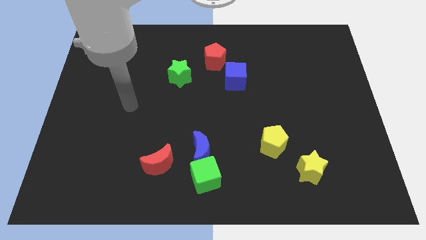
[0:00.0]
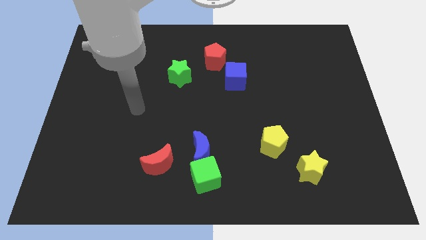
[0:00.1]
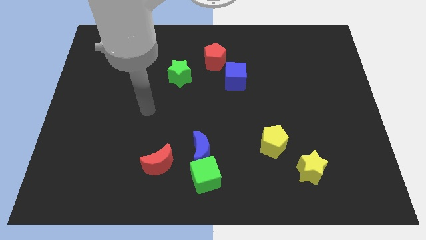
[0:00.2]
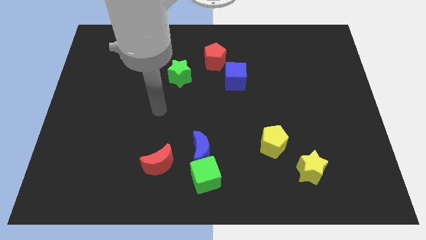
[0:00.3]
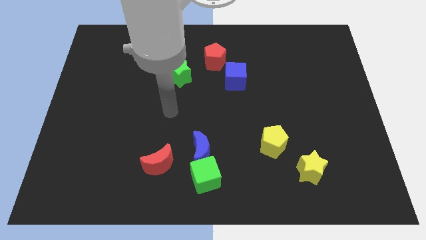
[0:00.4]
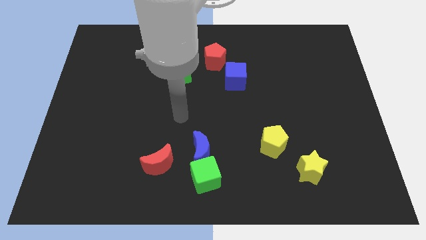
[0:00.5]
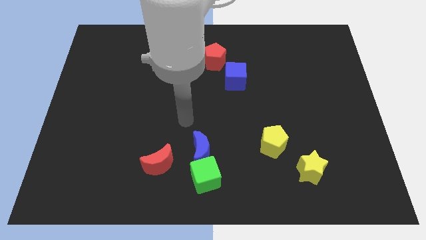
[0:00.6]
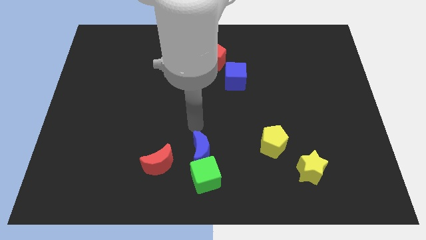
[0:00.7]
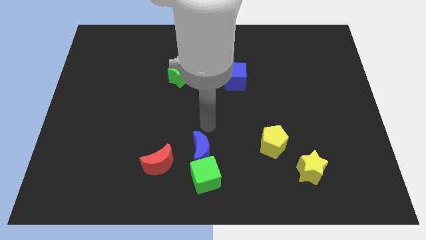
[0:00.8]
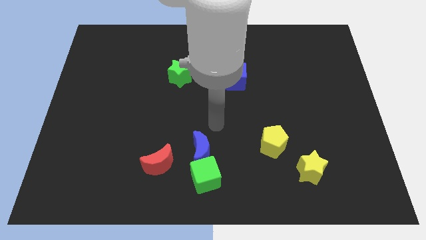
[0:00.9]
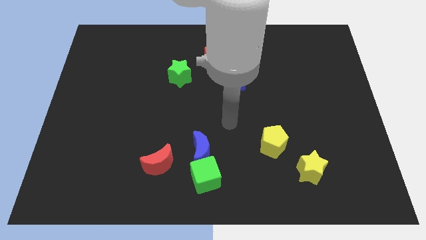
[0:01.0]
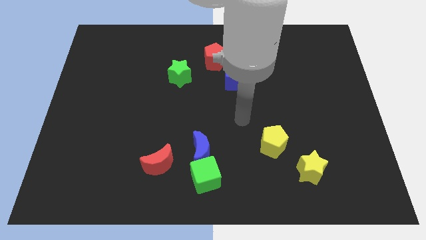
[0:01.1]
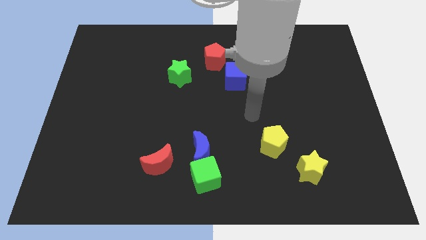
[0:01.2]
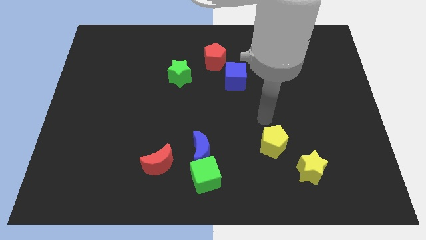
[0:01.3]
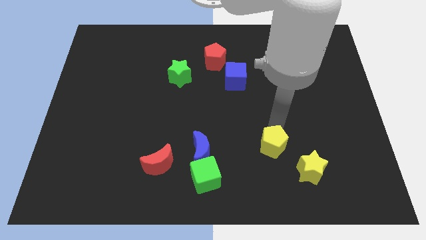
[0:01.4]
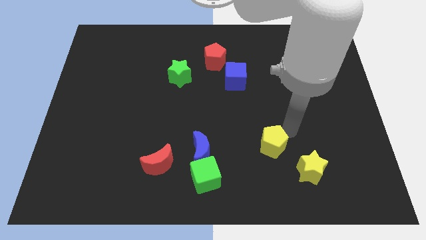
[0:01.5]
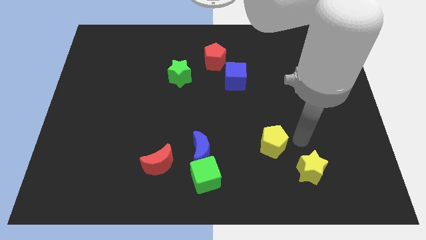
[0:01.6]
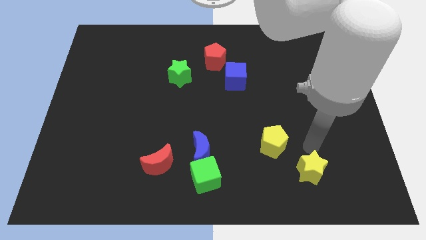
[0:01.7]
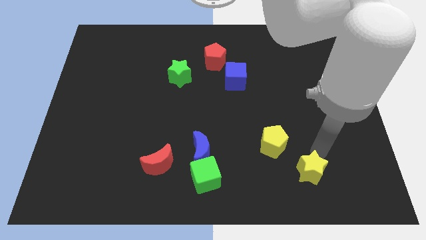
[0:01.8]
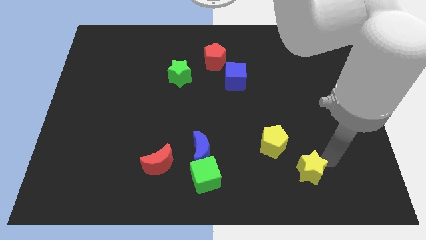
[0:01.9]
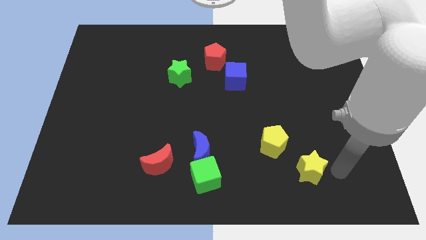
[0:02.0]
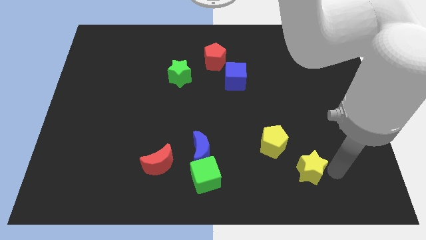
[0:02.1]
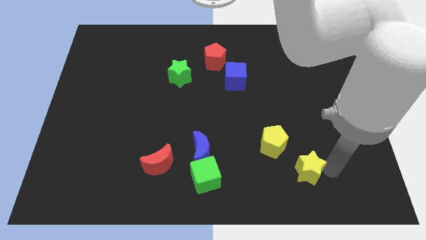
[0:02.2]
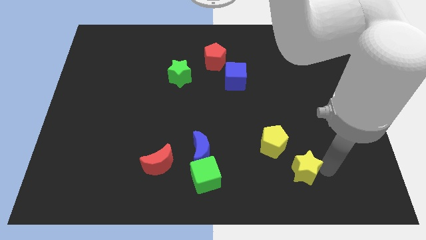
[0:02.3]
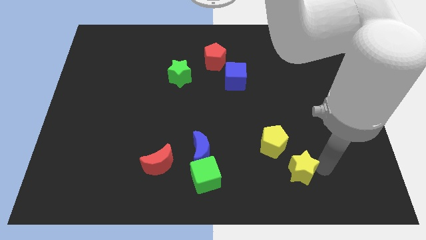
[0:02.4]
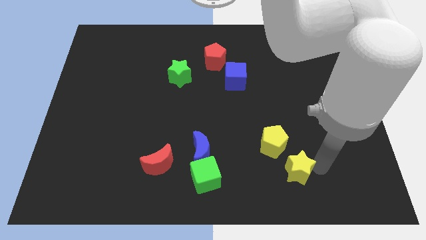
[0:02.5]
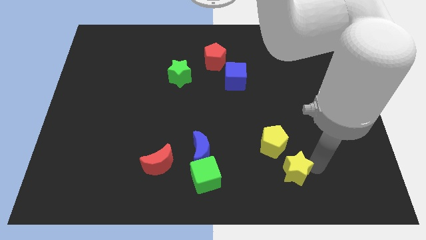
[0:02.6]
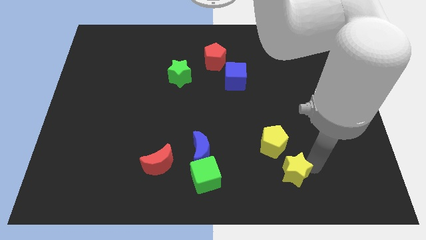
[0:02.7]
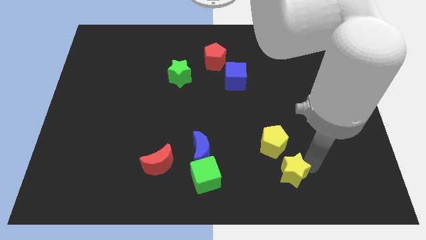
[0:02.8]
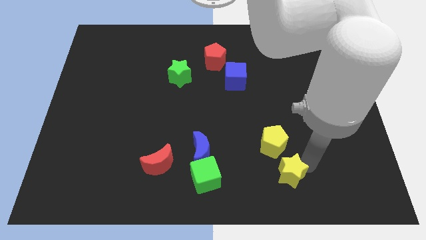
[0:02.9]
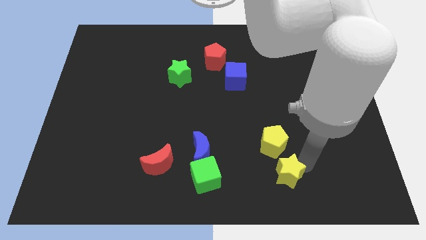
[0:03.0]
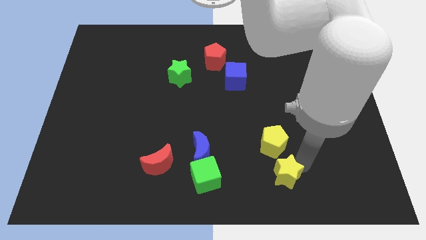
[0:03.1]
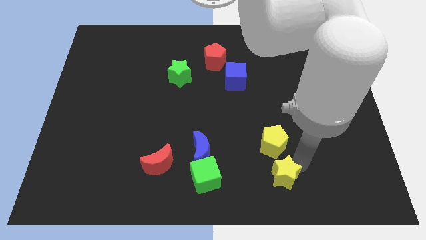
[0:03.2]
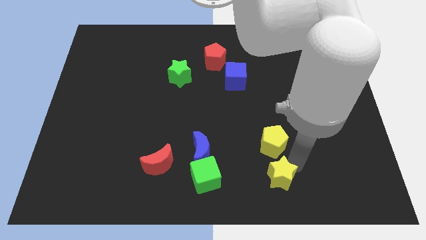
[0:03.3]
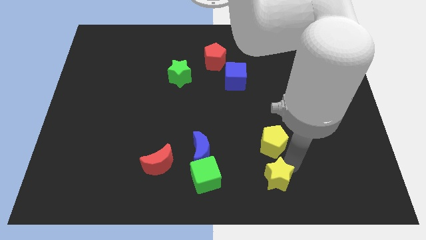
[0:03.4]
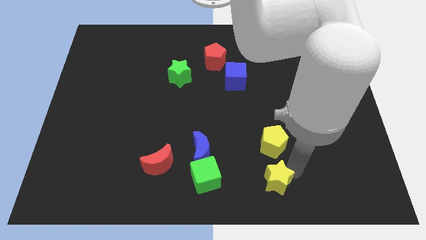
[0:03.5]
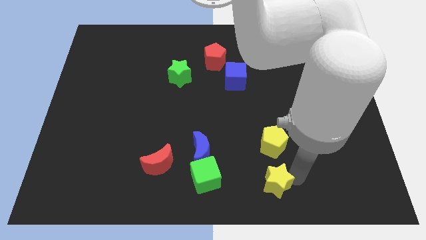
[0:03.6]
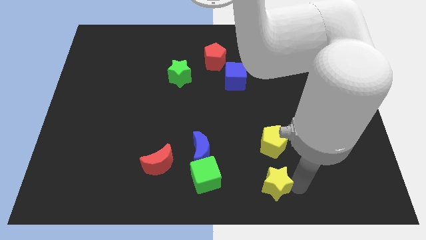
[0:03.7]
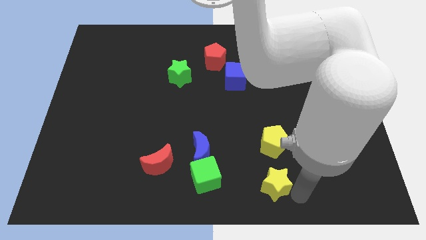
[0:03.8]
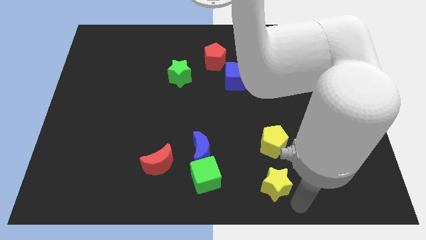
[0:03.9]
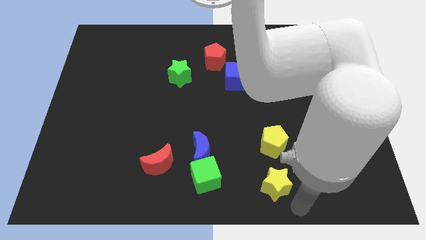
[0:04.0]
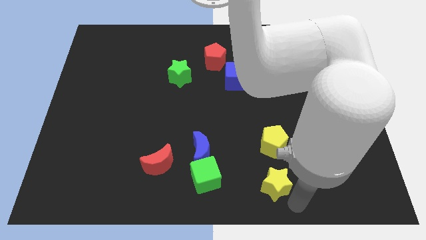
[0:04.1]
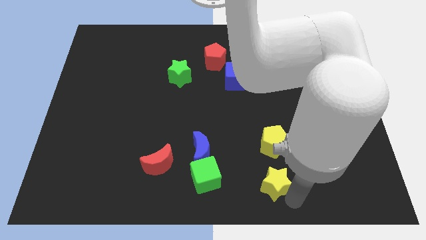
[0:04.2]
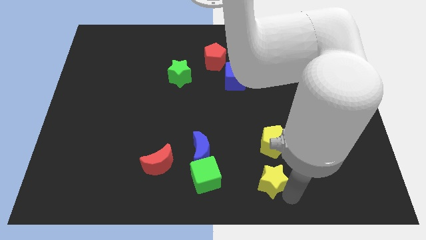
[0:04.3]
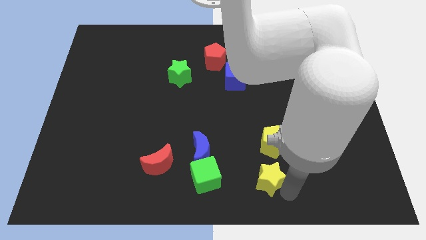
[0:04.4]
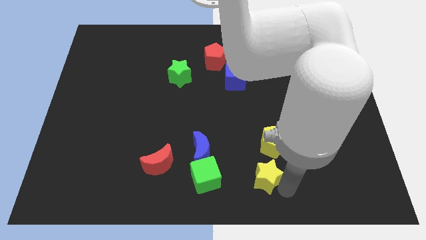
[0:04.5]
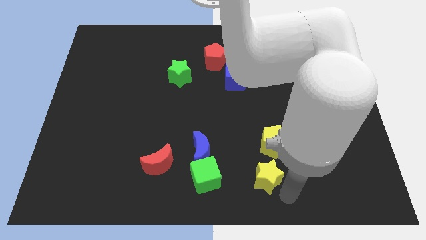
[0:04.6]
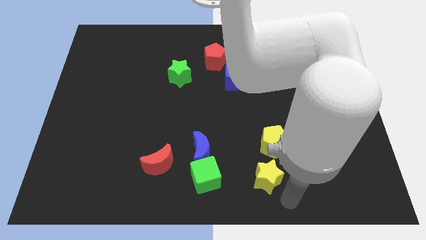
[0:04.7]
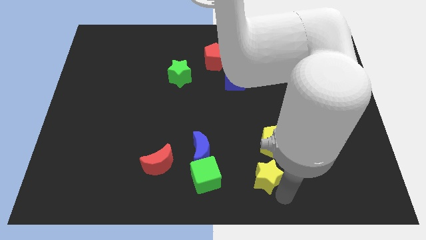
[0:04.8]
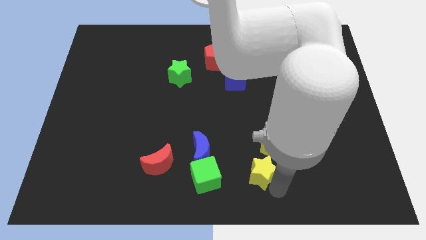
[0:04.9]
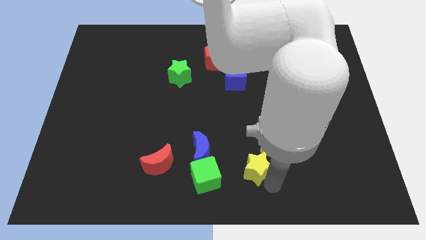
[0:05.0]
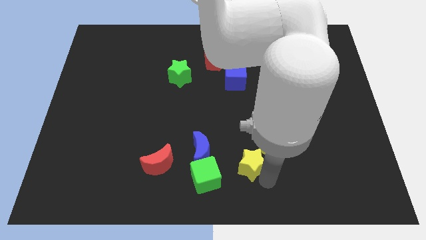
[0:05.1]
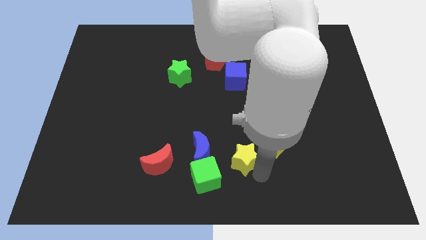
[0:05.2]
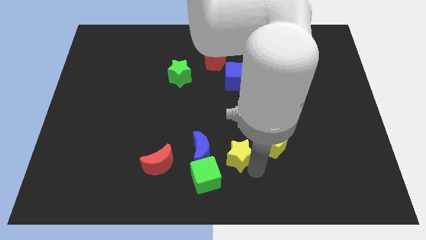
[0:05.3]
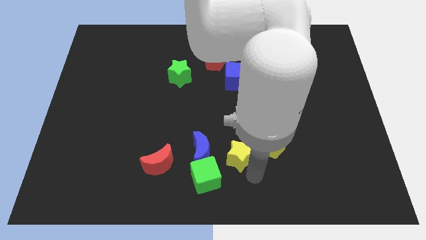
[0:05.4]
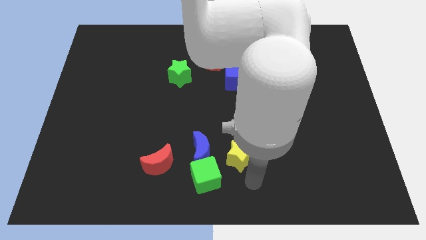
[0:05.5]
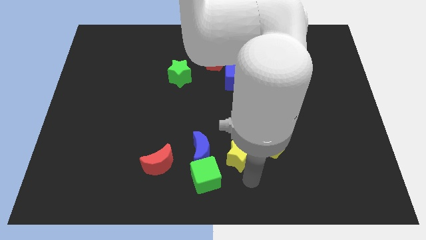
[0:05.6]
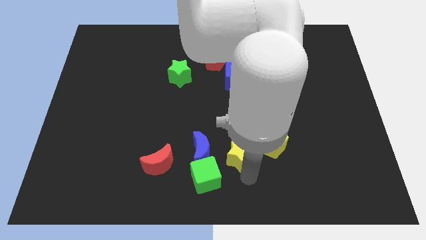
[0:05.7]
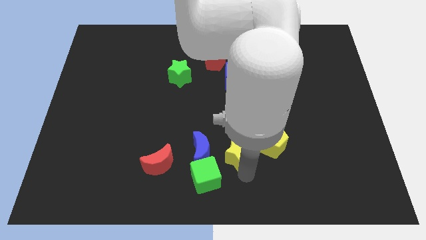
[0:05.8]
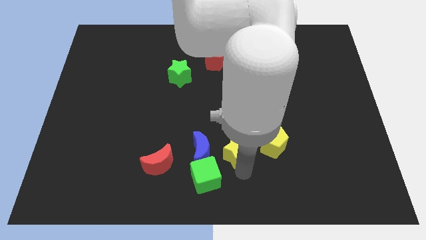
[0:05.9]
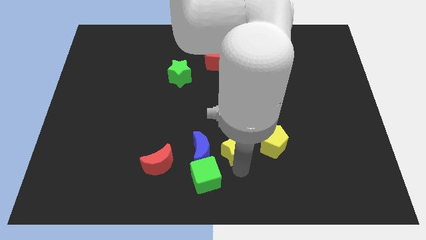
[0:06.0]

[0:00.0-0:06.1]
put the yellow star to the top right of the blue moon

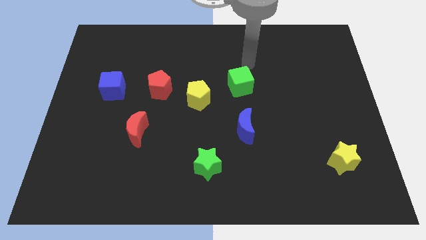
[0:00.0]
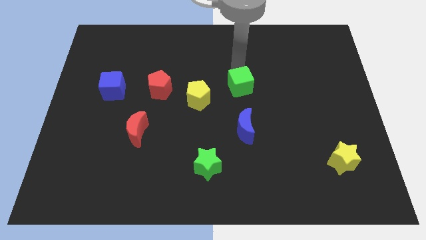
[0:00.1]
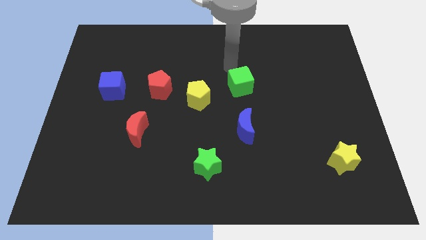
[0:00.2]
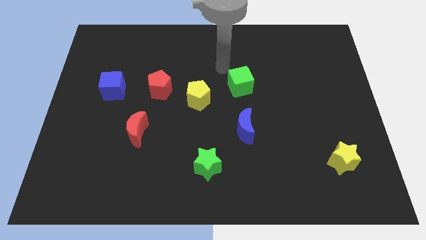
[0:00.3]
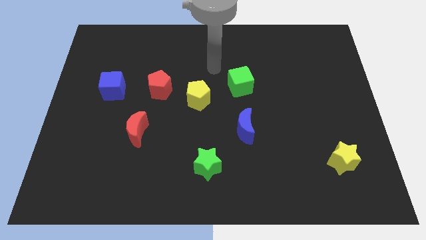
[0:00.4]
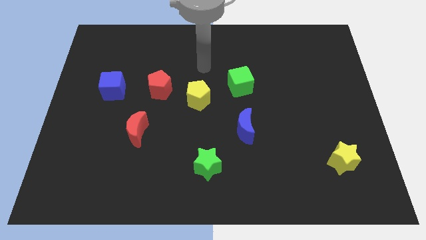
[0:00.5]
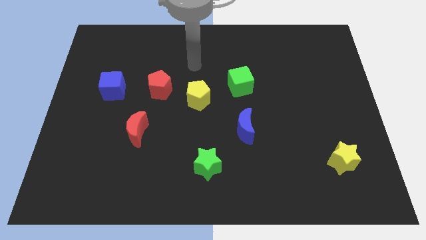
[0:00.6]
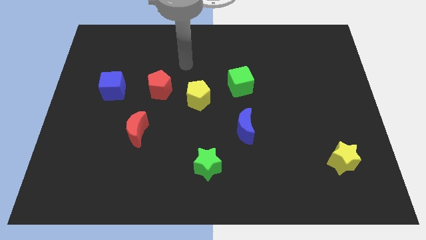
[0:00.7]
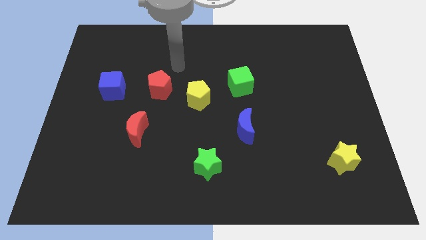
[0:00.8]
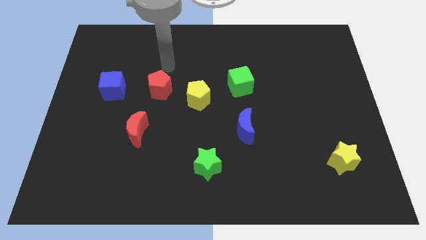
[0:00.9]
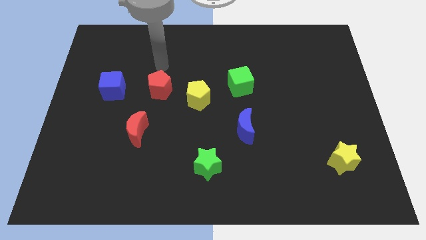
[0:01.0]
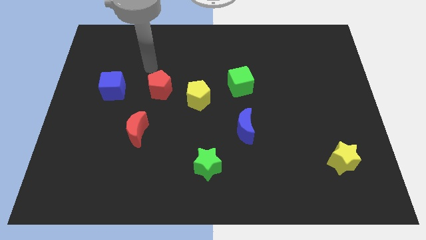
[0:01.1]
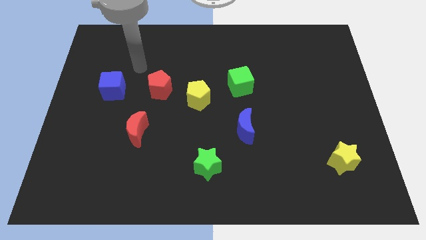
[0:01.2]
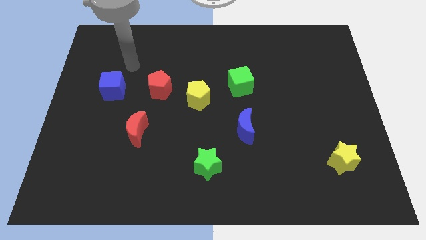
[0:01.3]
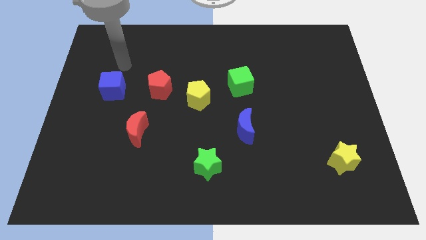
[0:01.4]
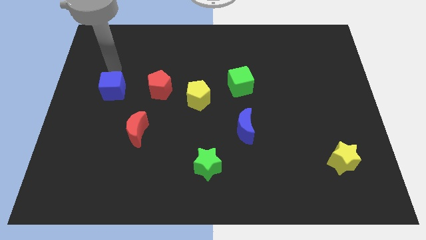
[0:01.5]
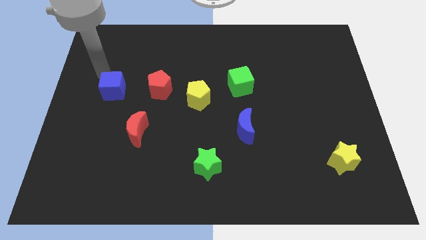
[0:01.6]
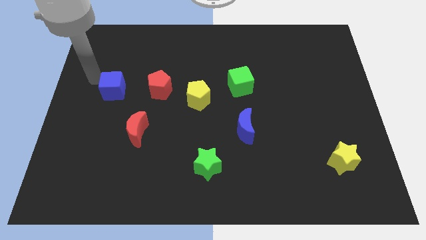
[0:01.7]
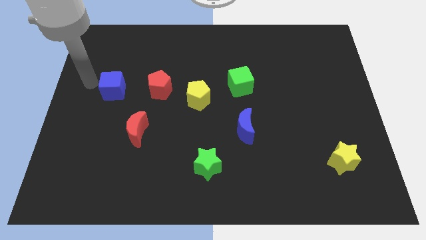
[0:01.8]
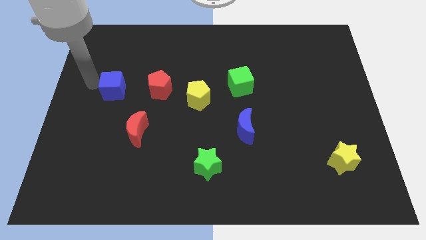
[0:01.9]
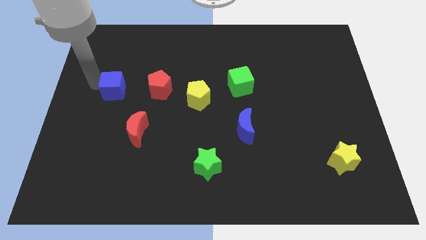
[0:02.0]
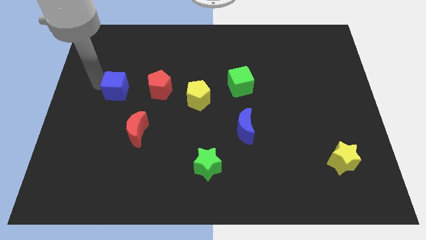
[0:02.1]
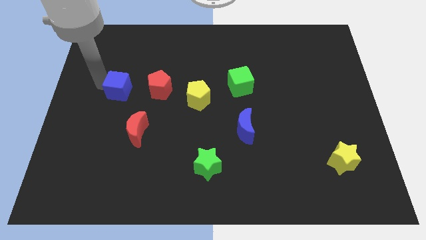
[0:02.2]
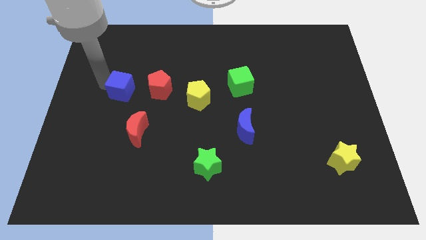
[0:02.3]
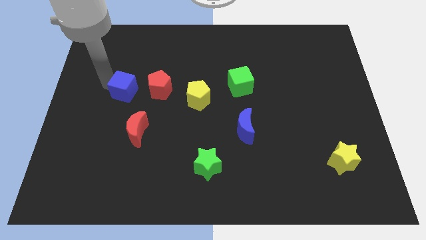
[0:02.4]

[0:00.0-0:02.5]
slide the blue cube above the red moon
